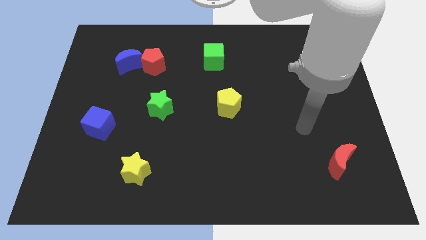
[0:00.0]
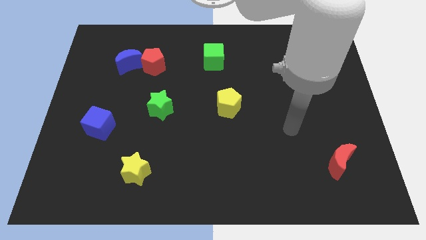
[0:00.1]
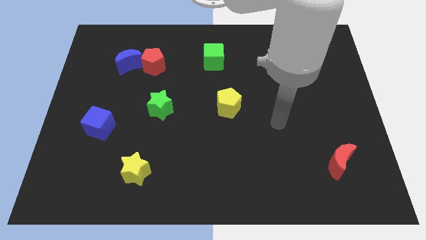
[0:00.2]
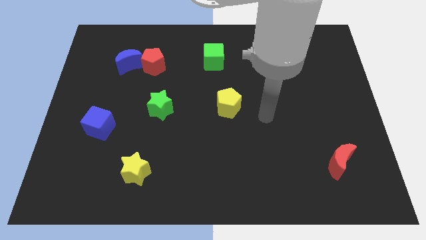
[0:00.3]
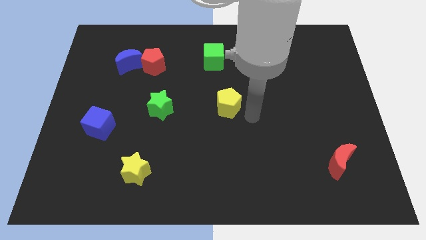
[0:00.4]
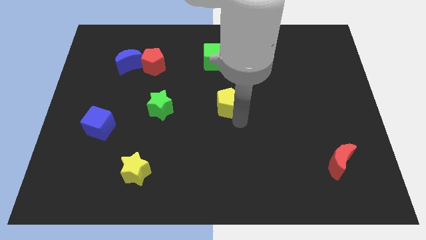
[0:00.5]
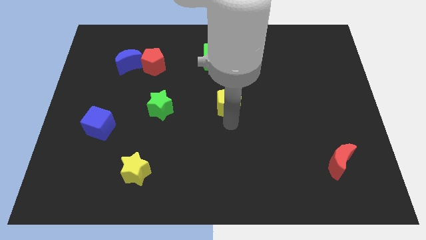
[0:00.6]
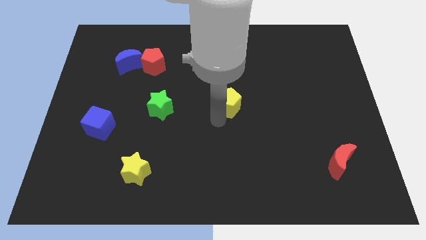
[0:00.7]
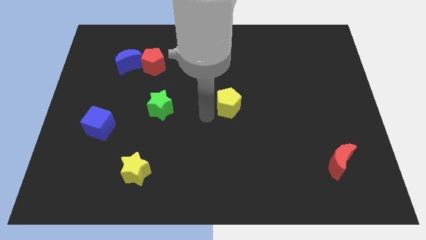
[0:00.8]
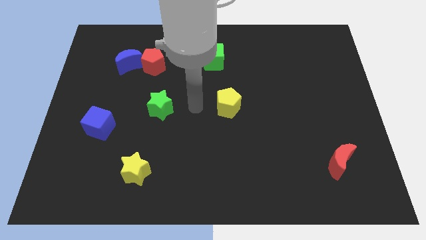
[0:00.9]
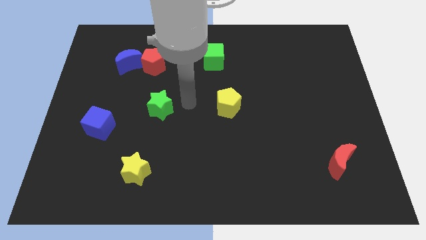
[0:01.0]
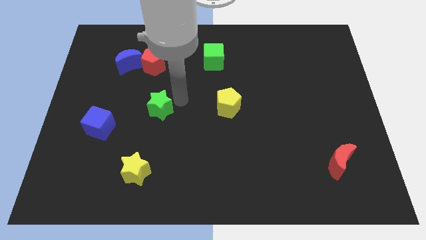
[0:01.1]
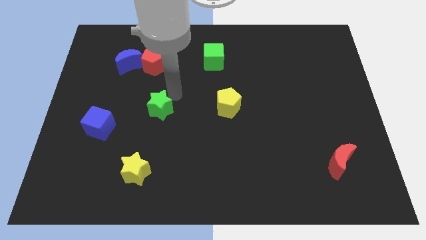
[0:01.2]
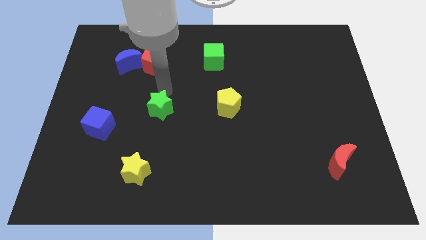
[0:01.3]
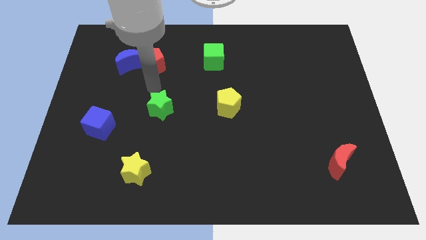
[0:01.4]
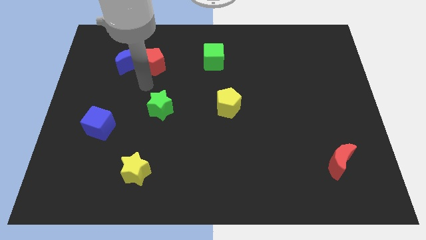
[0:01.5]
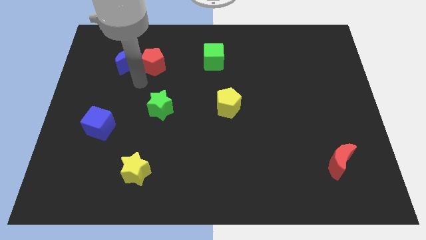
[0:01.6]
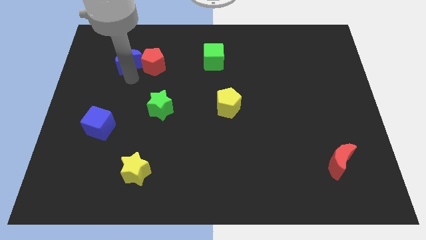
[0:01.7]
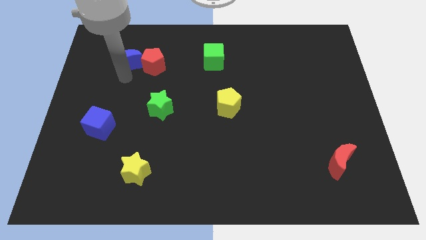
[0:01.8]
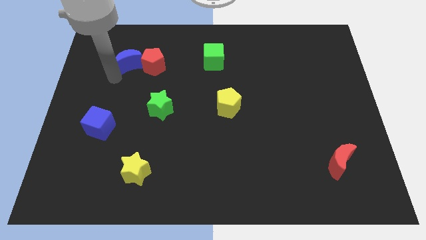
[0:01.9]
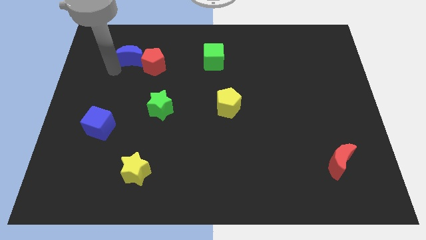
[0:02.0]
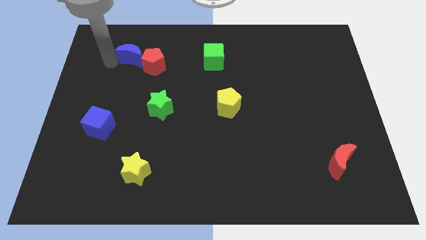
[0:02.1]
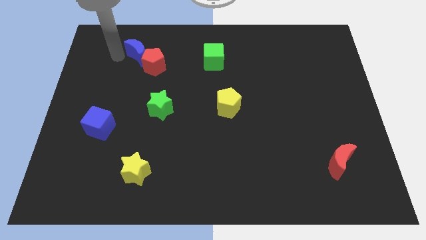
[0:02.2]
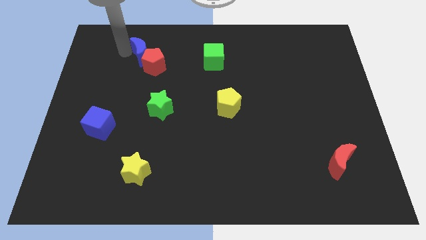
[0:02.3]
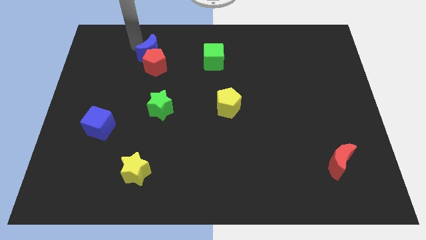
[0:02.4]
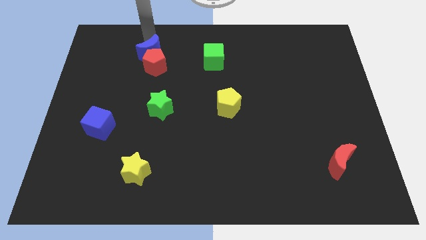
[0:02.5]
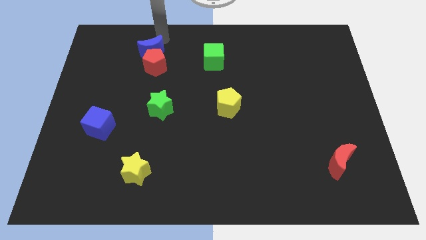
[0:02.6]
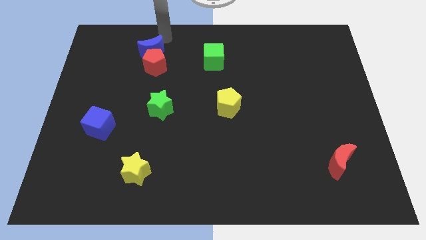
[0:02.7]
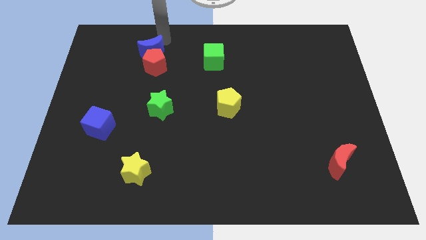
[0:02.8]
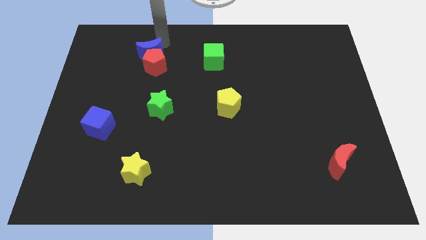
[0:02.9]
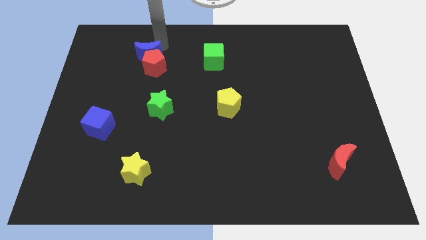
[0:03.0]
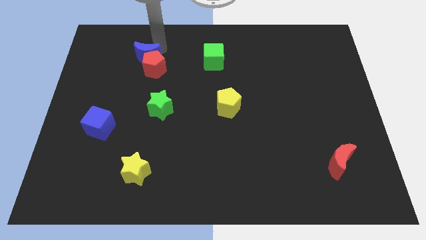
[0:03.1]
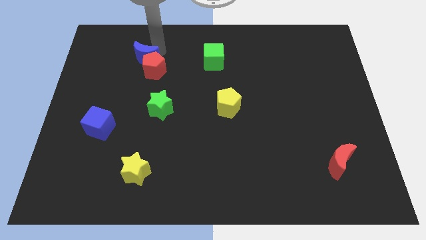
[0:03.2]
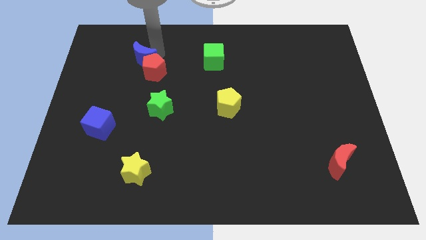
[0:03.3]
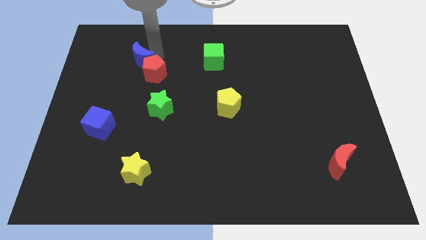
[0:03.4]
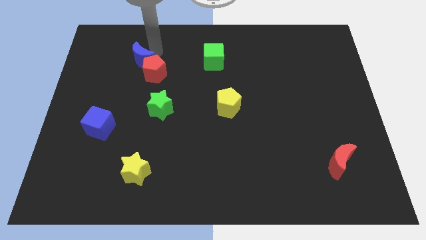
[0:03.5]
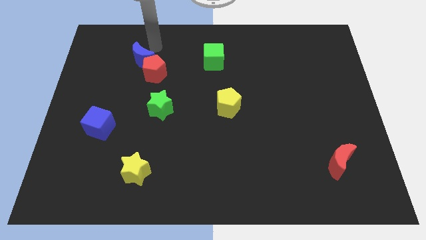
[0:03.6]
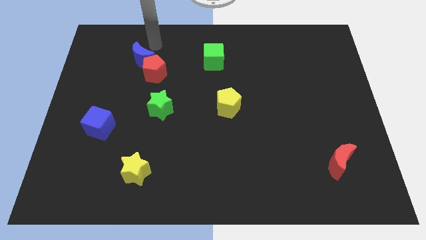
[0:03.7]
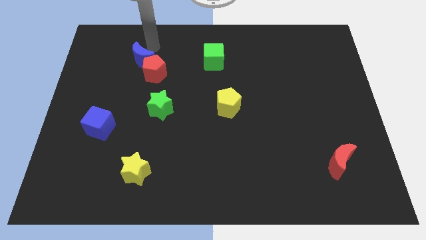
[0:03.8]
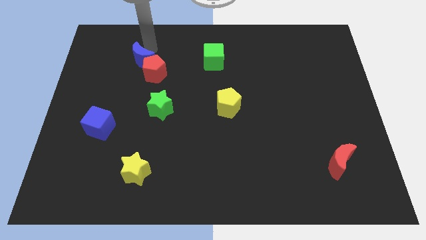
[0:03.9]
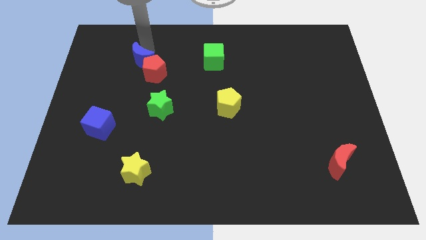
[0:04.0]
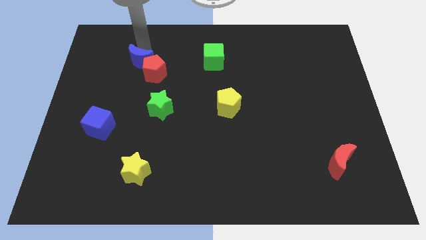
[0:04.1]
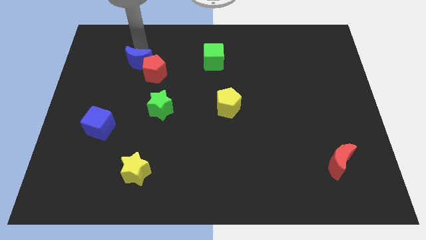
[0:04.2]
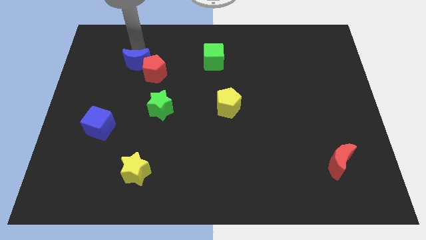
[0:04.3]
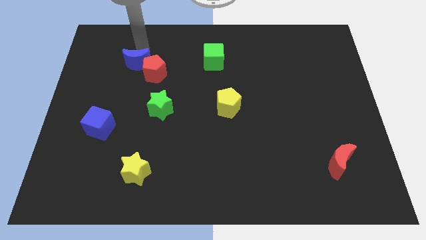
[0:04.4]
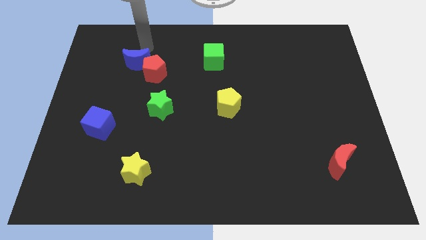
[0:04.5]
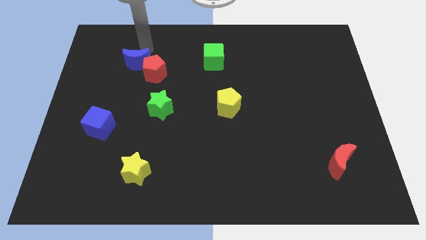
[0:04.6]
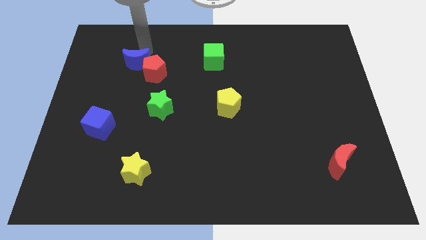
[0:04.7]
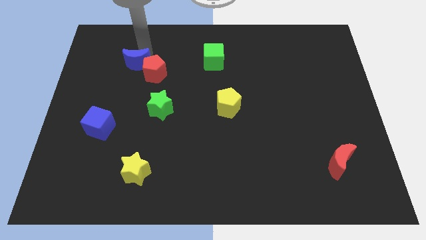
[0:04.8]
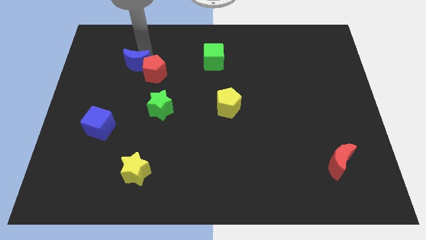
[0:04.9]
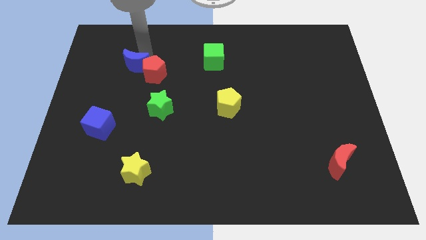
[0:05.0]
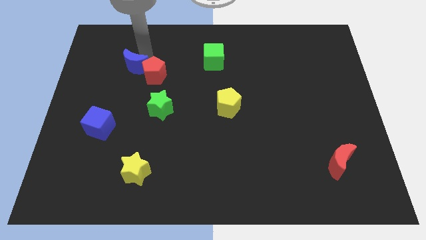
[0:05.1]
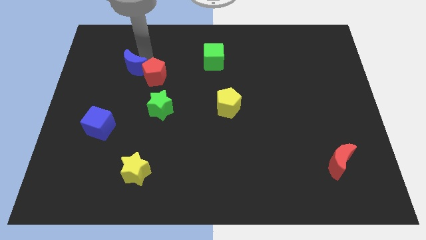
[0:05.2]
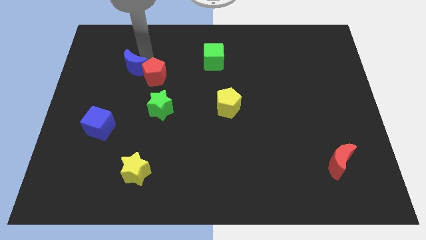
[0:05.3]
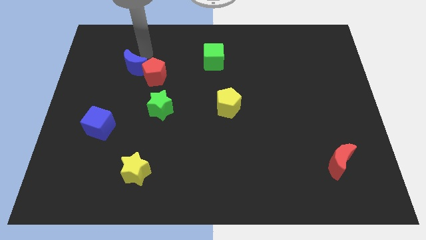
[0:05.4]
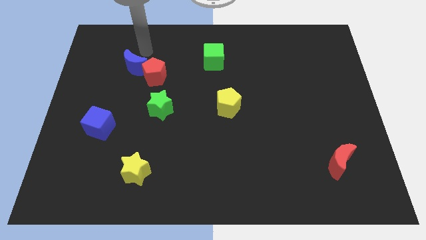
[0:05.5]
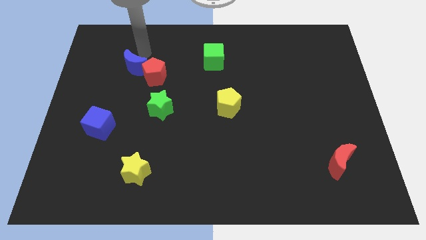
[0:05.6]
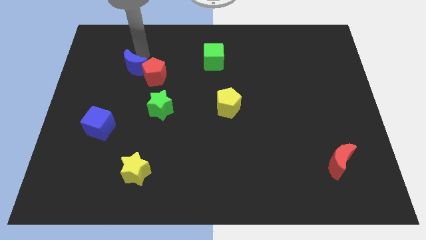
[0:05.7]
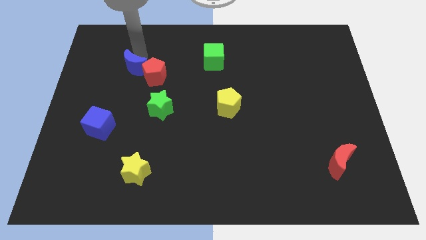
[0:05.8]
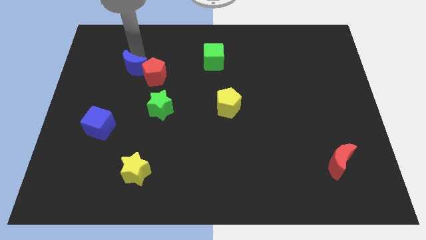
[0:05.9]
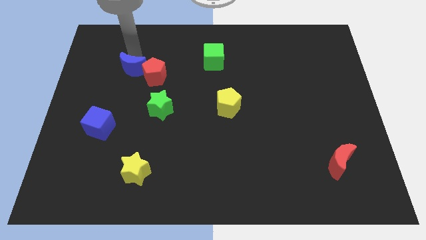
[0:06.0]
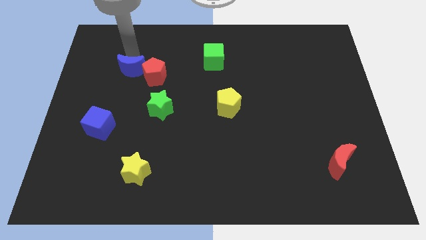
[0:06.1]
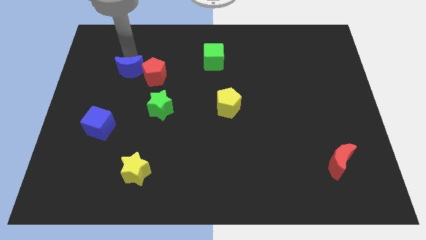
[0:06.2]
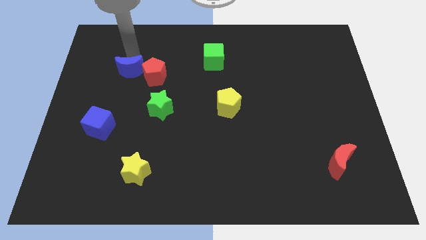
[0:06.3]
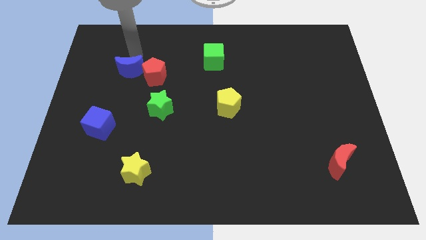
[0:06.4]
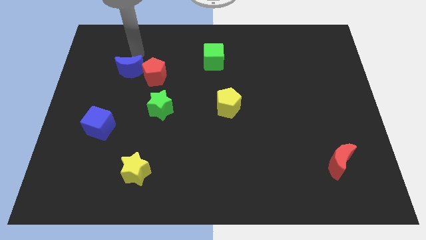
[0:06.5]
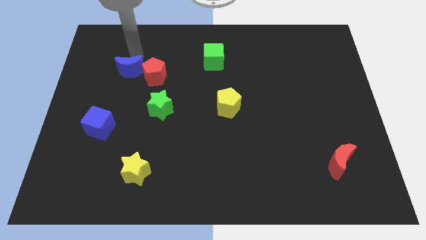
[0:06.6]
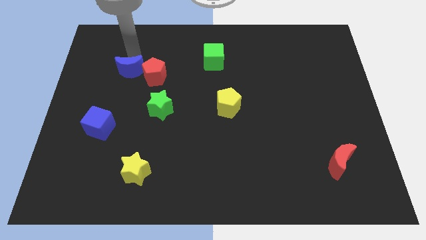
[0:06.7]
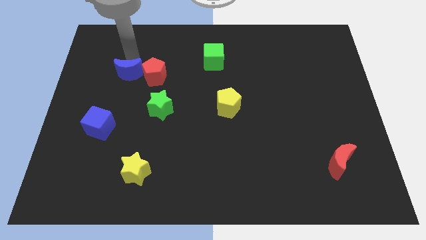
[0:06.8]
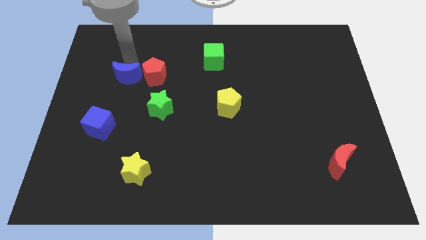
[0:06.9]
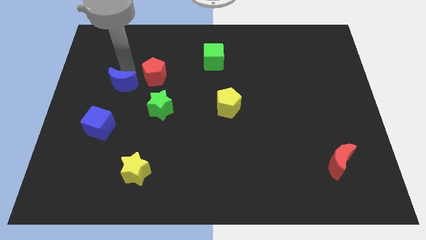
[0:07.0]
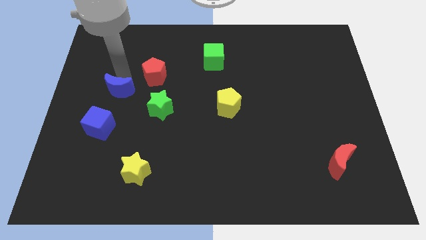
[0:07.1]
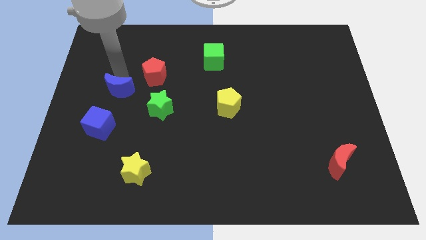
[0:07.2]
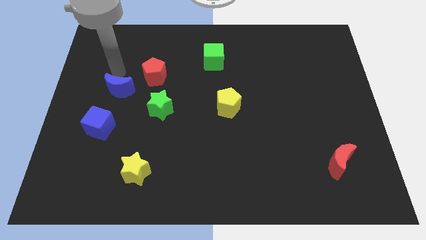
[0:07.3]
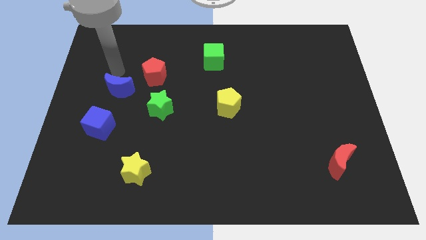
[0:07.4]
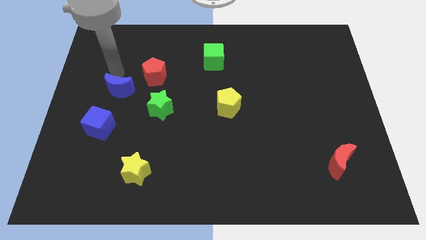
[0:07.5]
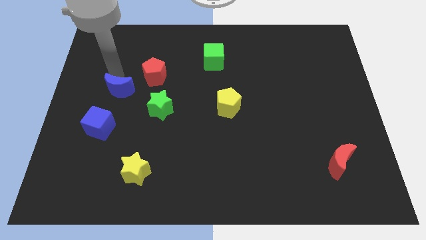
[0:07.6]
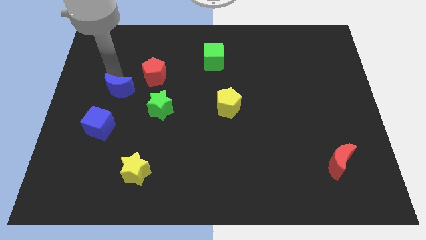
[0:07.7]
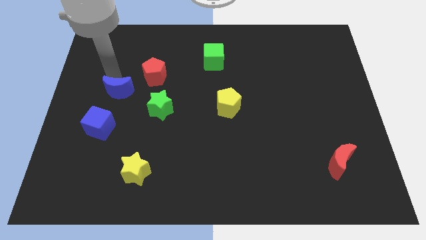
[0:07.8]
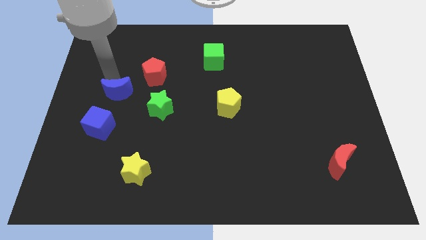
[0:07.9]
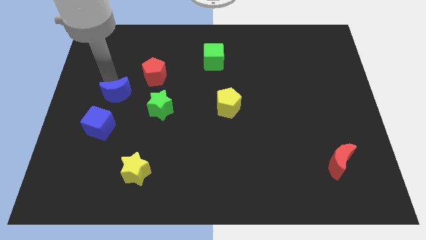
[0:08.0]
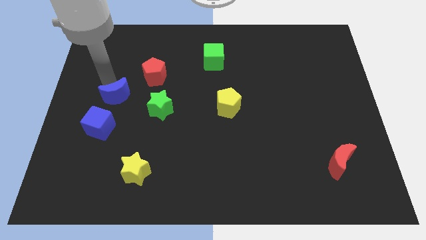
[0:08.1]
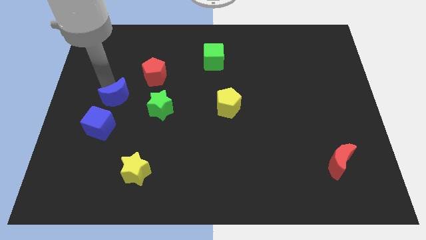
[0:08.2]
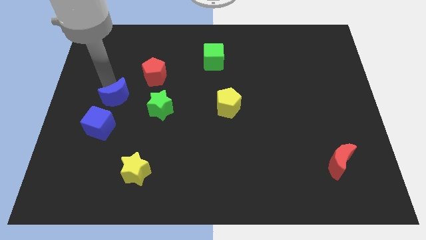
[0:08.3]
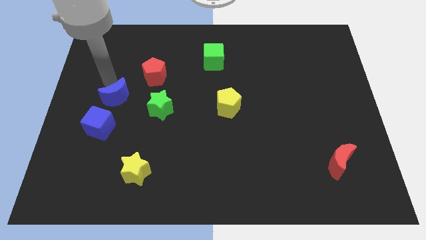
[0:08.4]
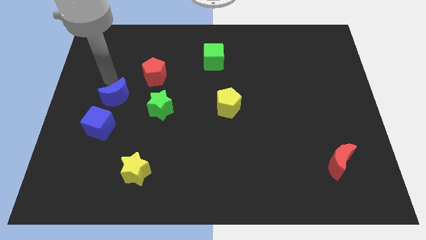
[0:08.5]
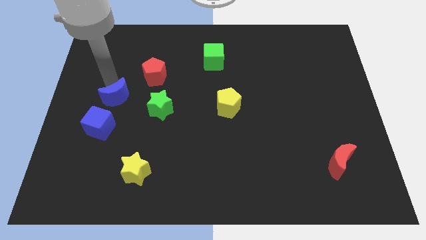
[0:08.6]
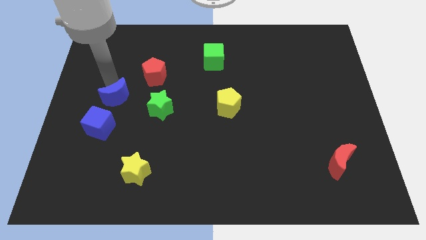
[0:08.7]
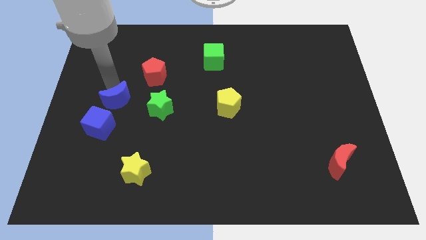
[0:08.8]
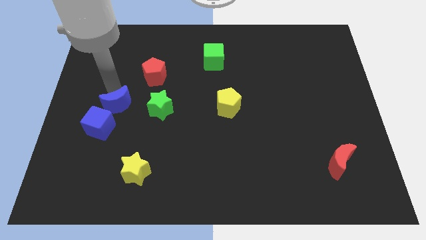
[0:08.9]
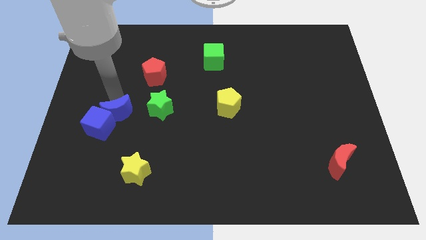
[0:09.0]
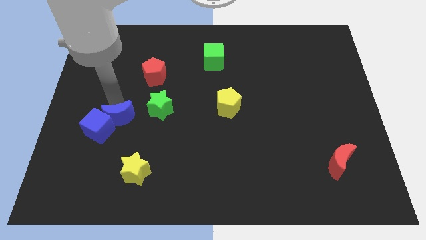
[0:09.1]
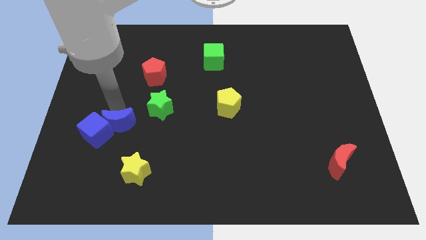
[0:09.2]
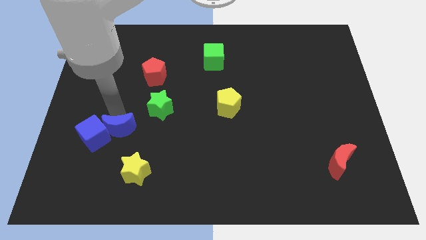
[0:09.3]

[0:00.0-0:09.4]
move the blue moon down
